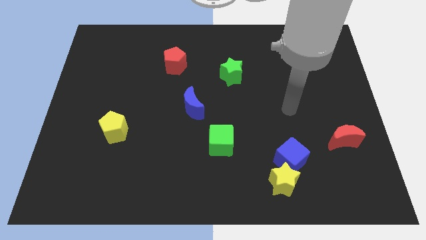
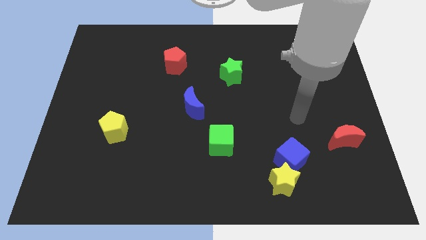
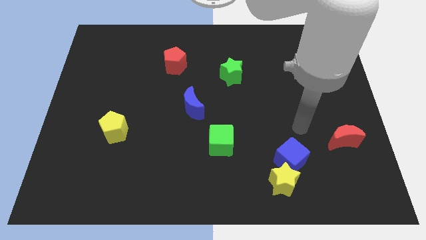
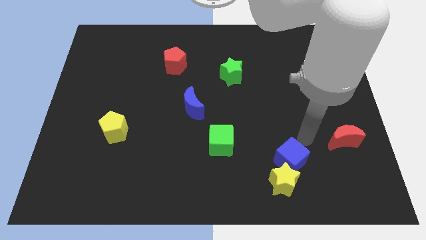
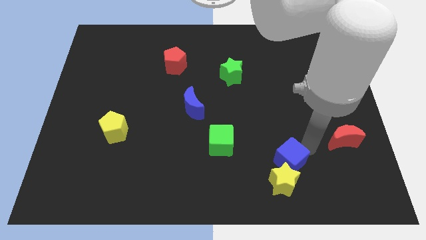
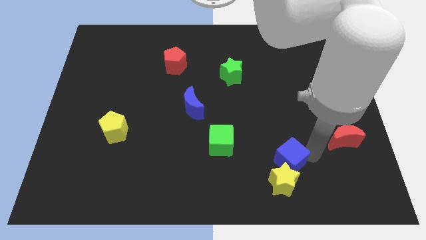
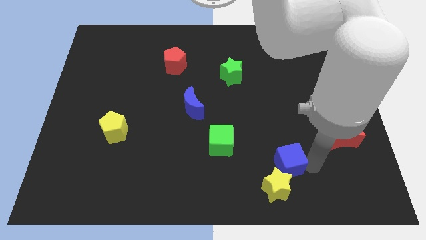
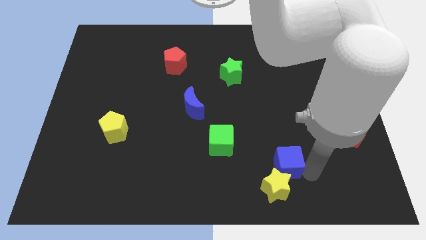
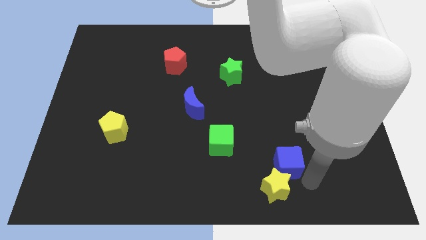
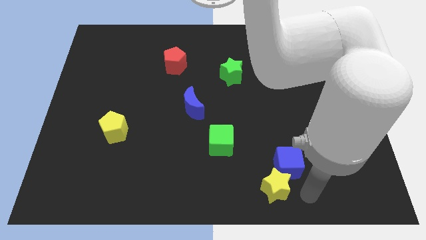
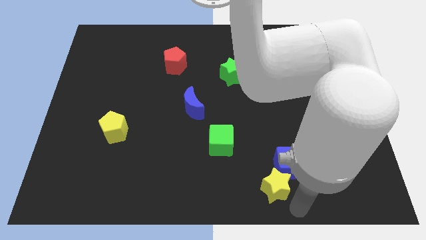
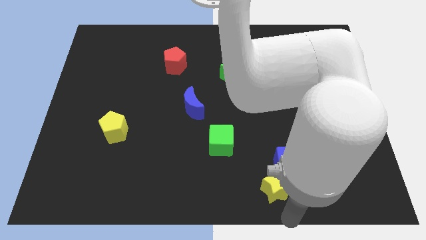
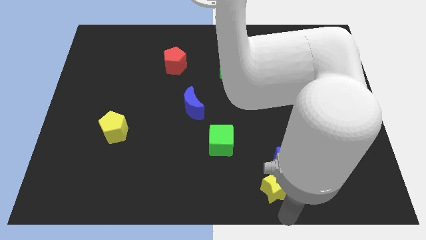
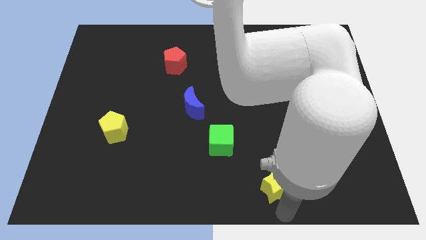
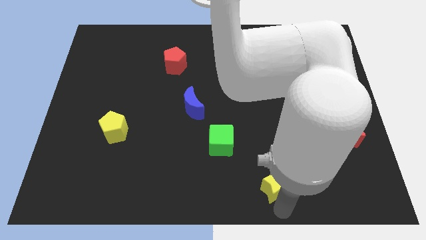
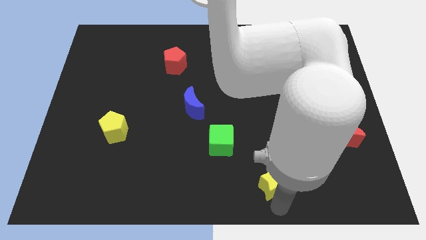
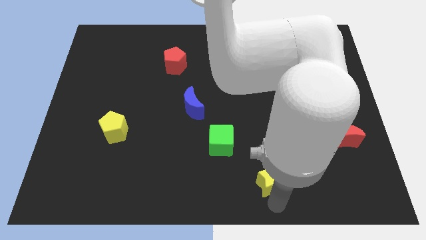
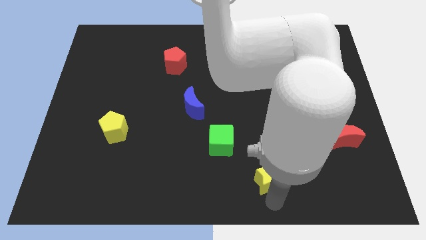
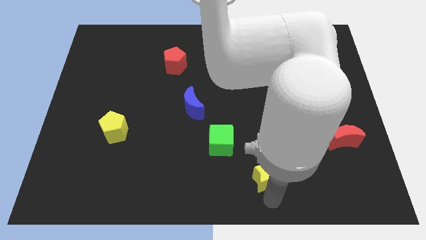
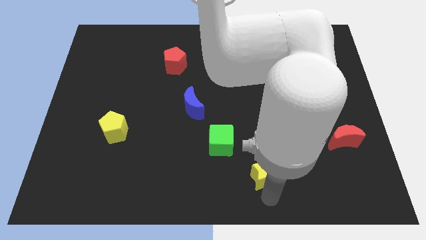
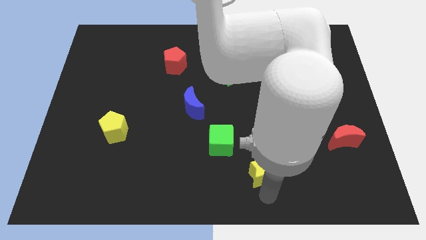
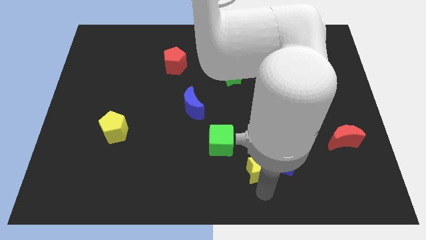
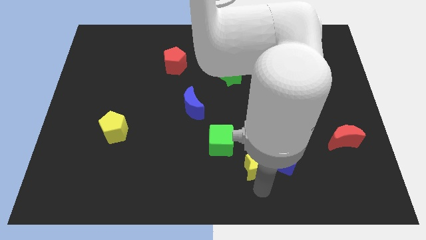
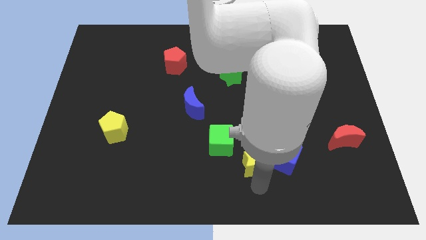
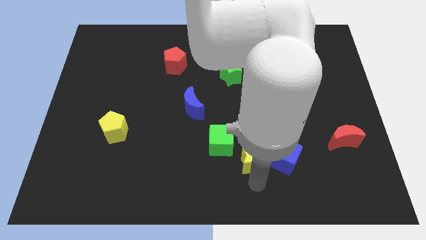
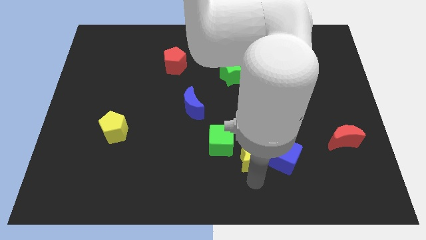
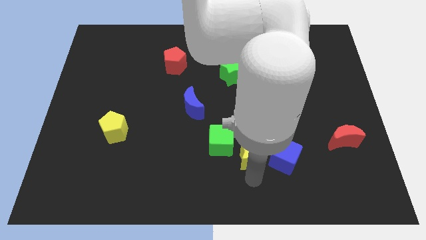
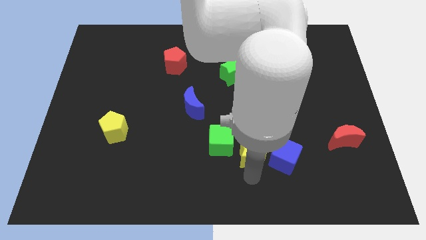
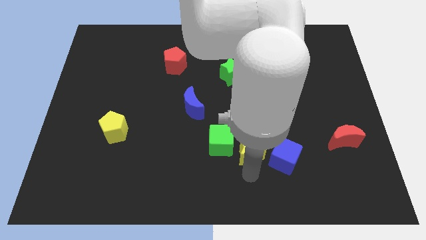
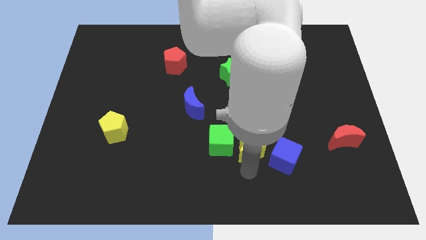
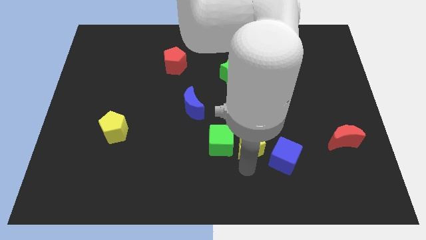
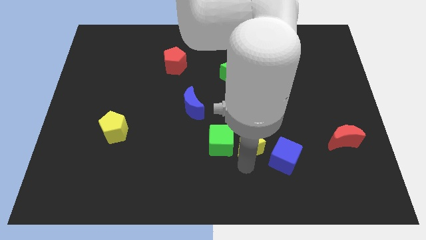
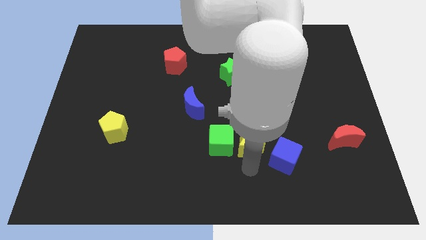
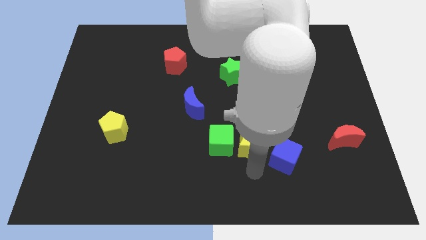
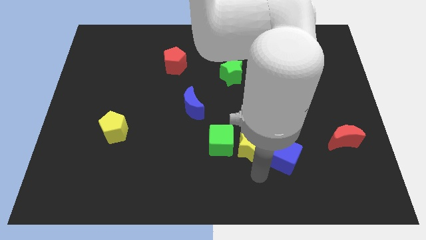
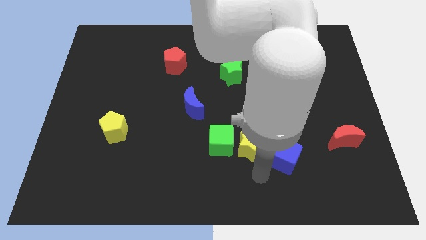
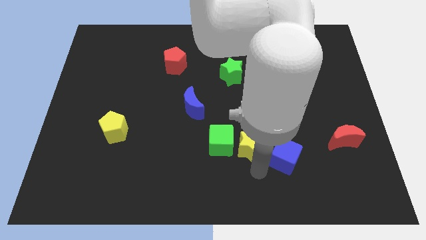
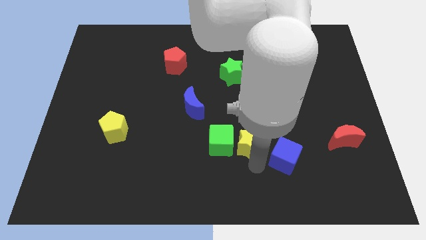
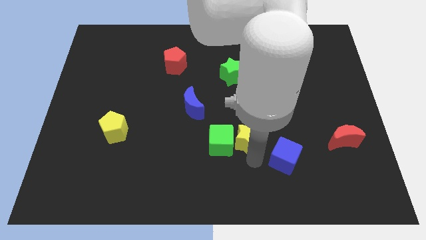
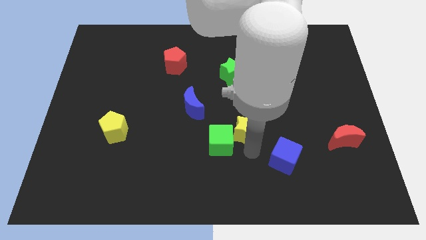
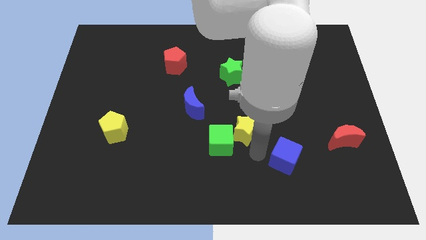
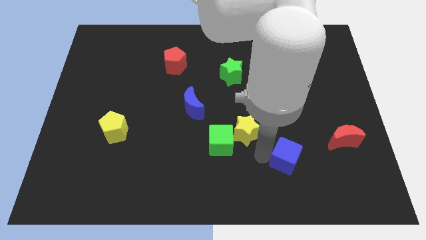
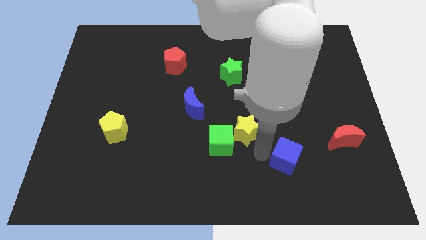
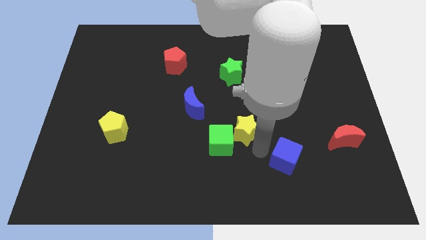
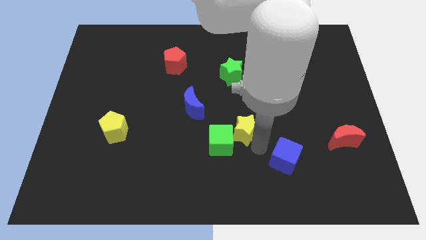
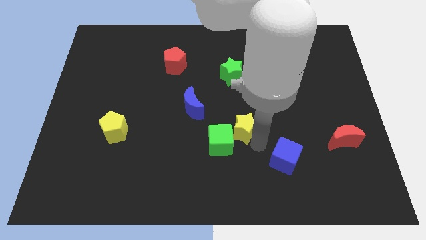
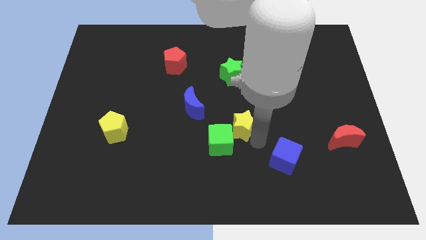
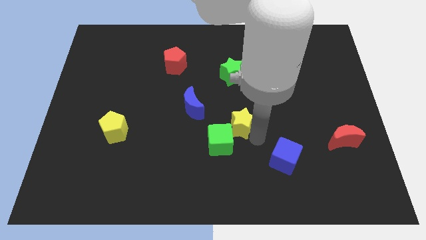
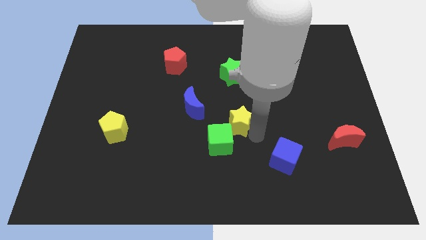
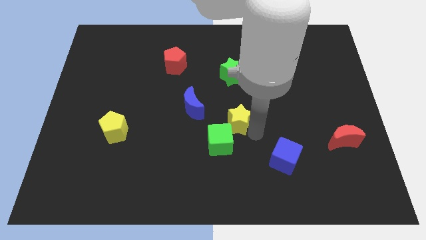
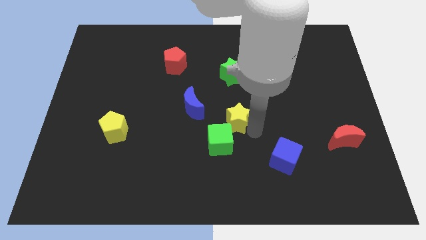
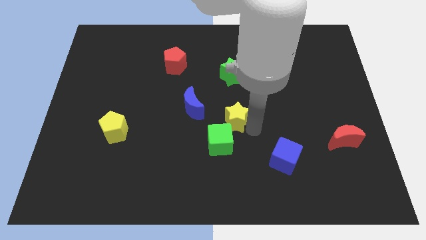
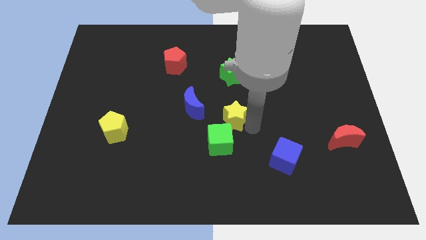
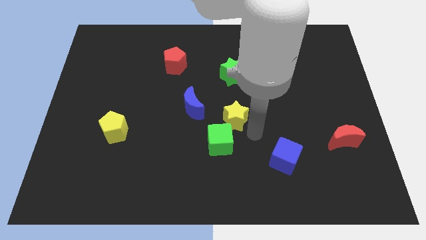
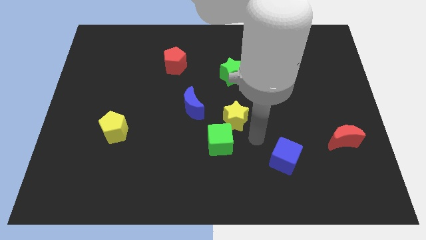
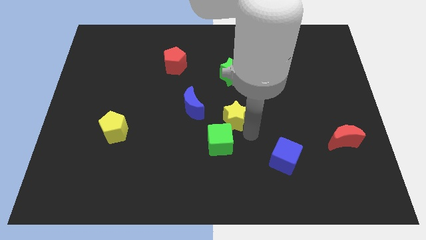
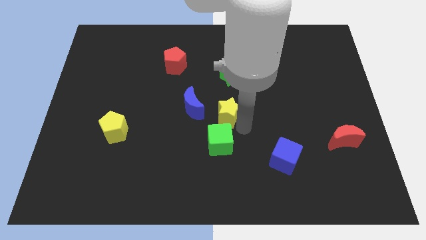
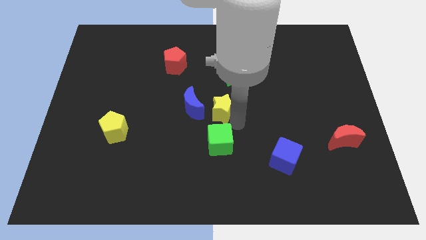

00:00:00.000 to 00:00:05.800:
slide the yellow star up and then left

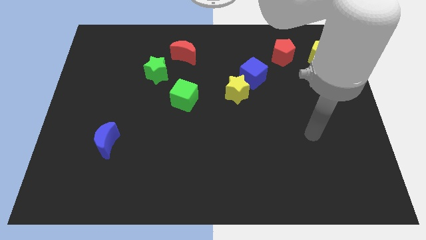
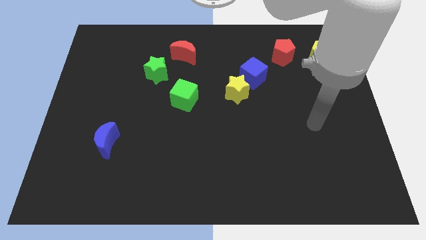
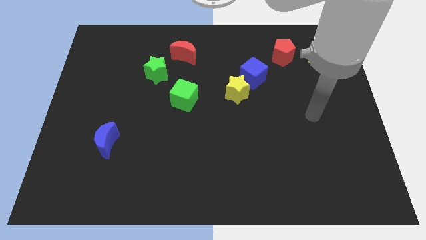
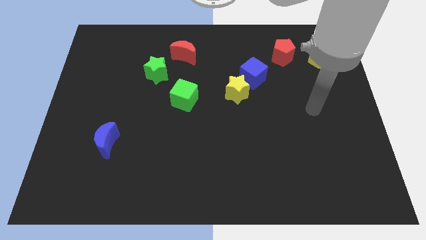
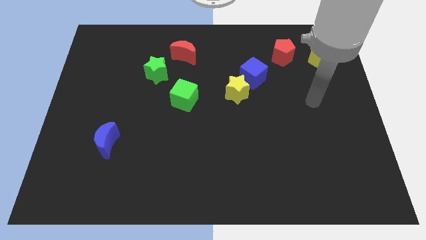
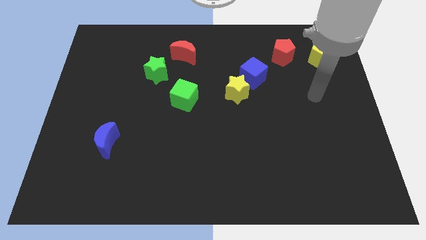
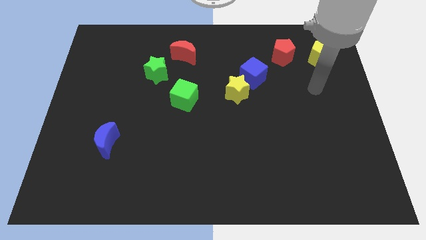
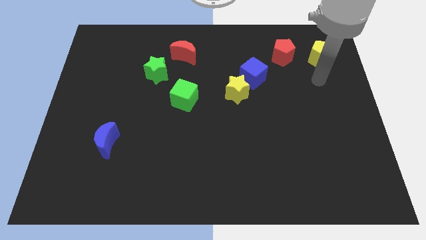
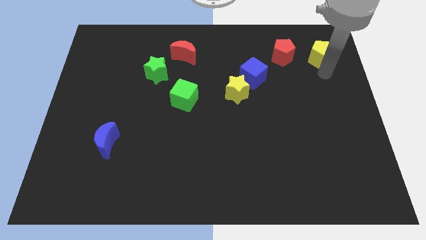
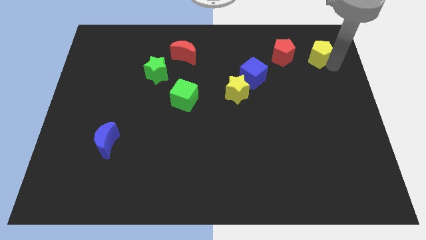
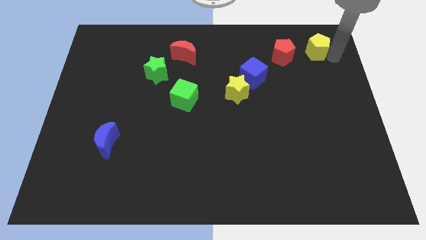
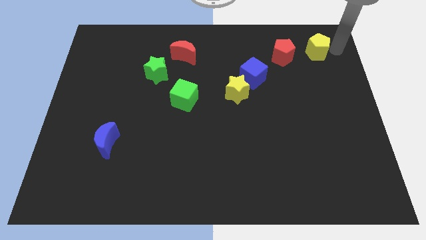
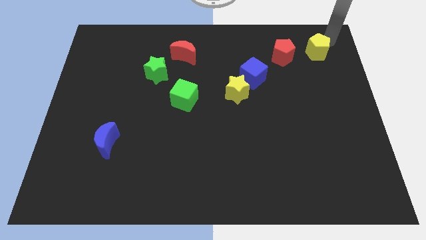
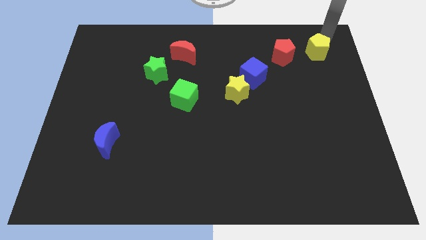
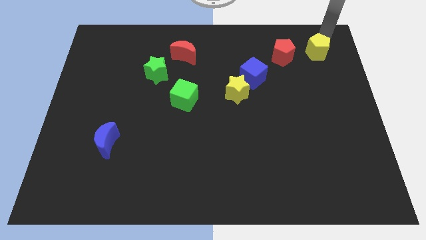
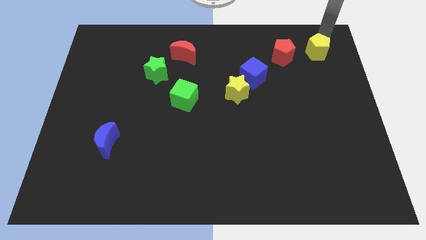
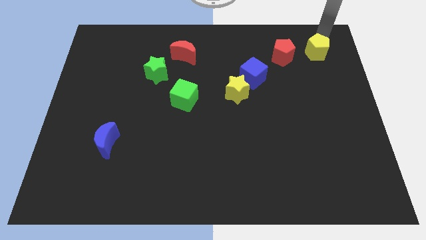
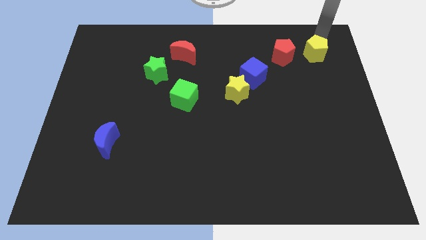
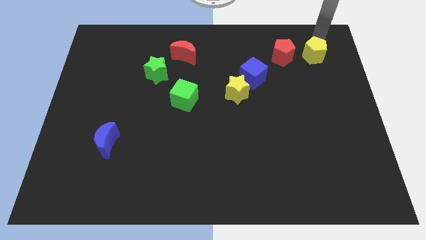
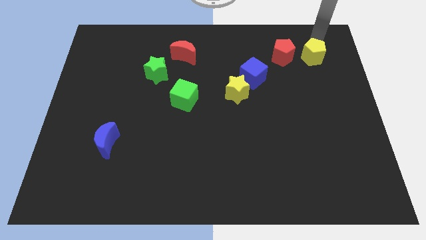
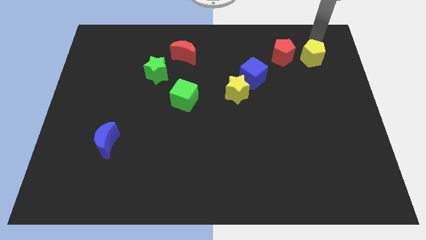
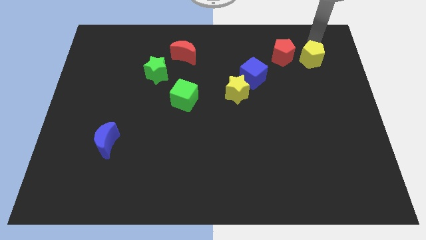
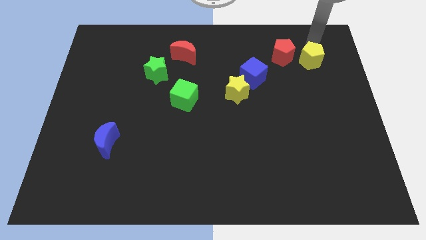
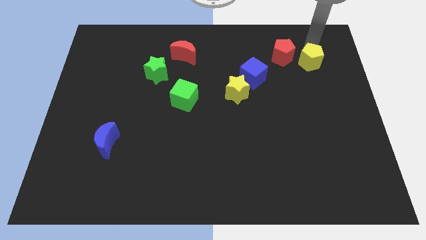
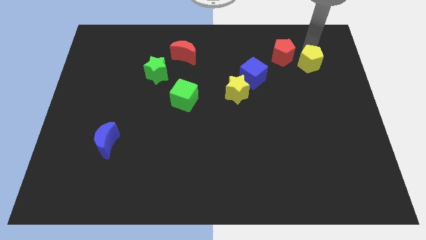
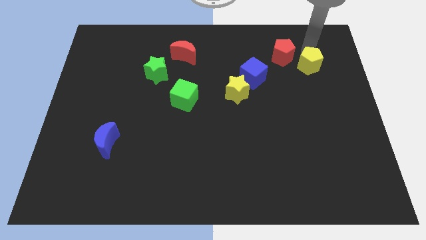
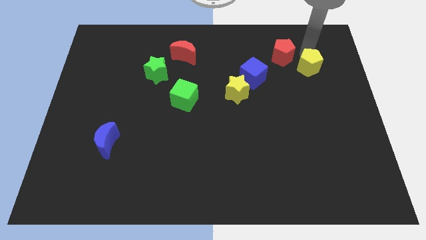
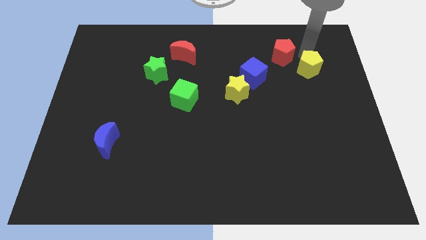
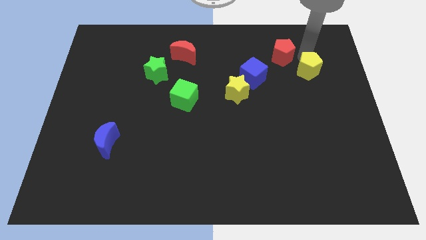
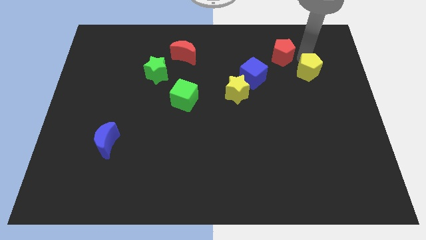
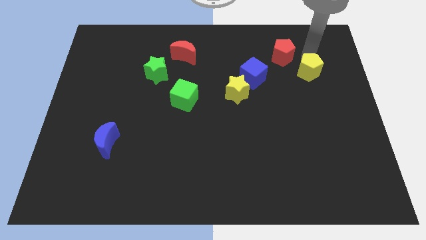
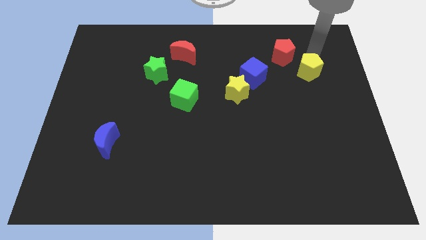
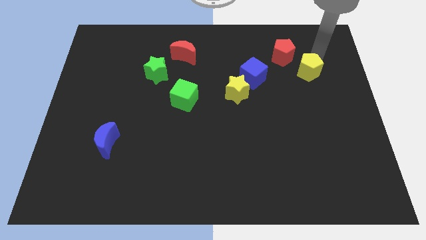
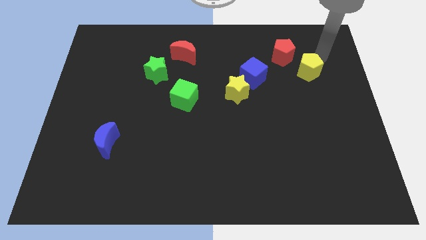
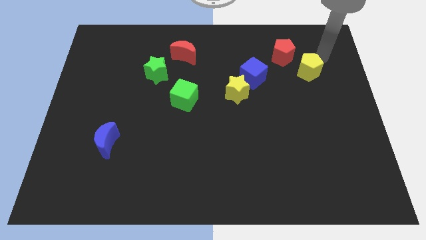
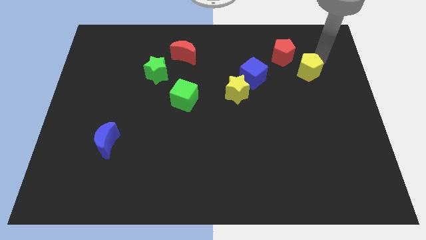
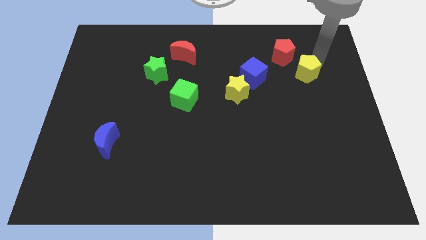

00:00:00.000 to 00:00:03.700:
slightly push the yellow pentagon diagonally downwards and left
